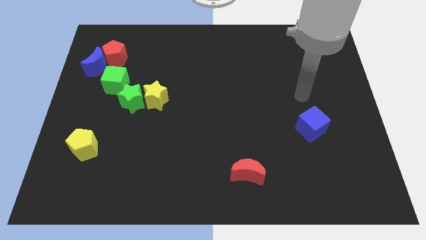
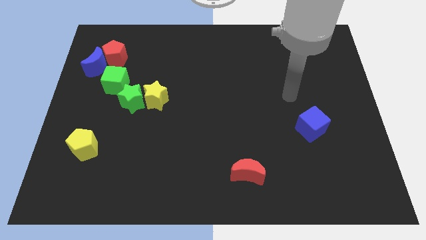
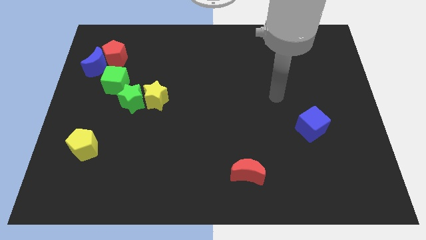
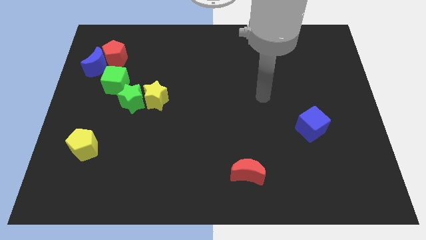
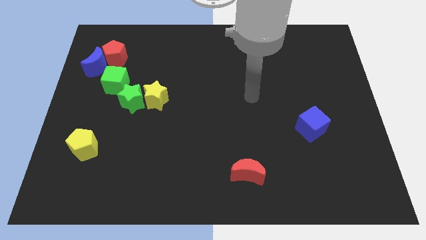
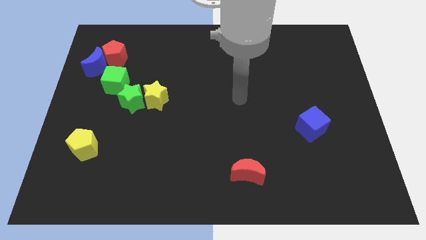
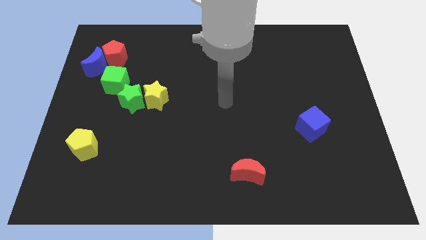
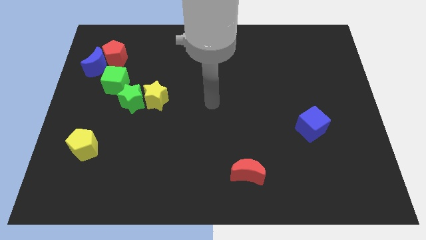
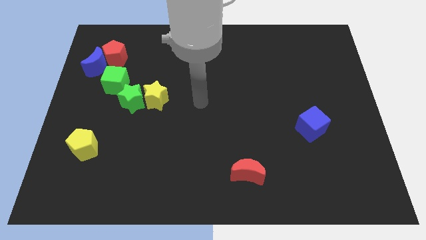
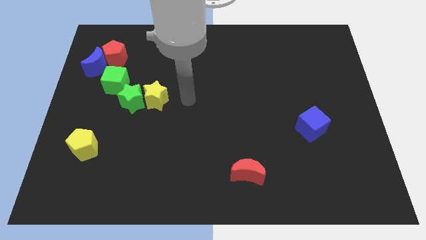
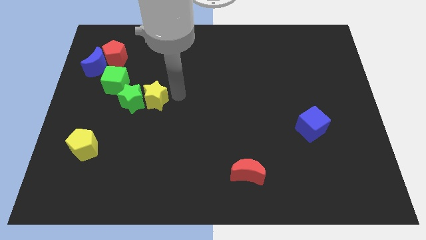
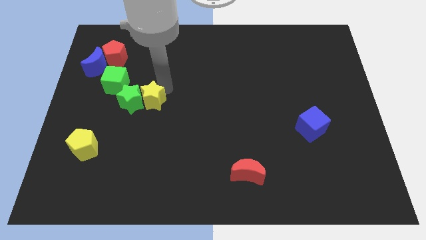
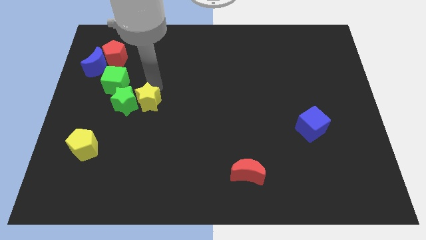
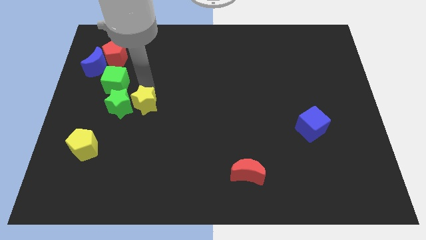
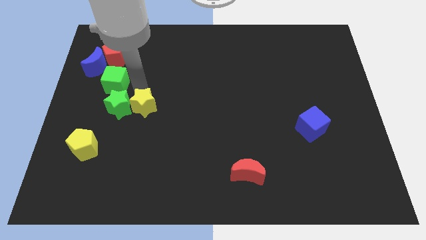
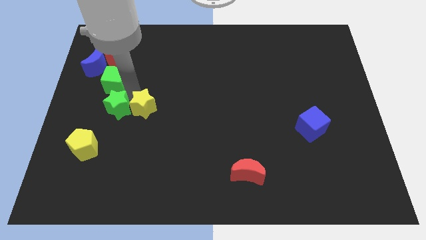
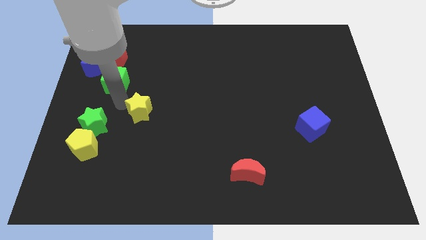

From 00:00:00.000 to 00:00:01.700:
separate the yellow star from the green star

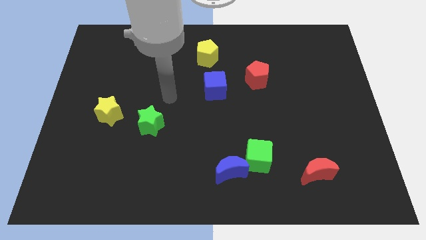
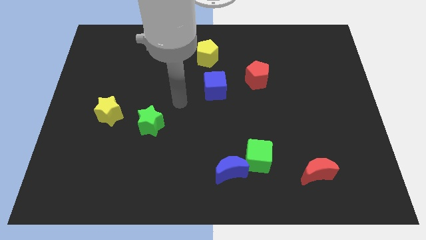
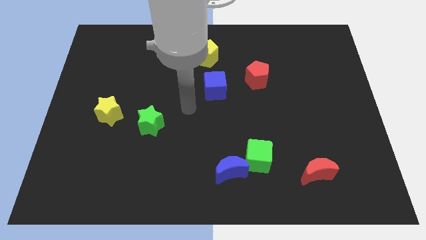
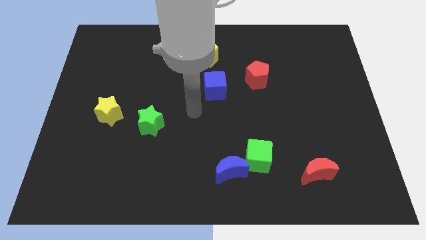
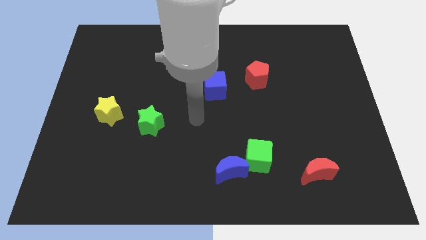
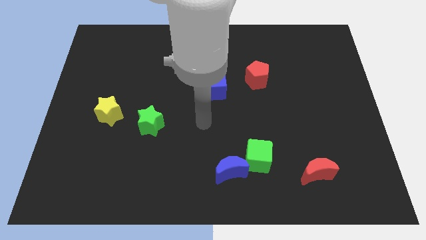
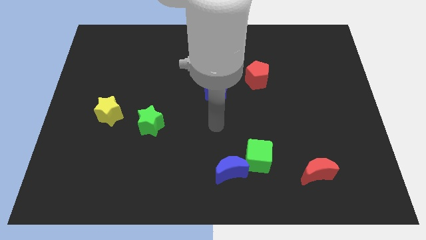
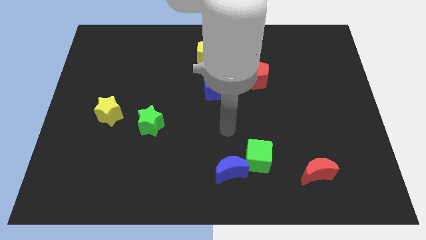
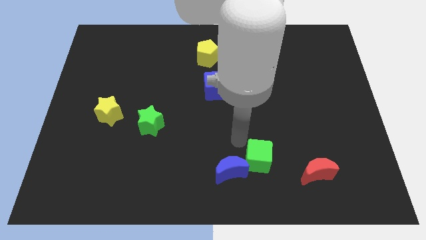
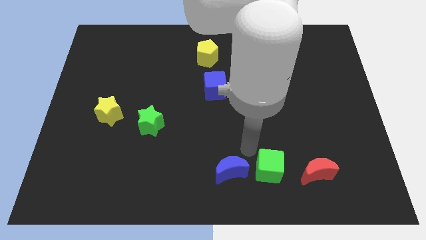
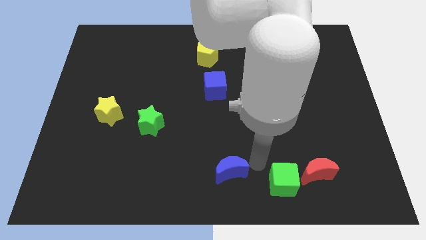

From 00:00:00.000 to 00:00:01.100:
move the blue moon away from the green cube

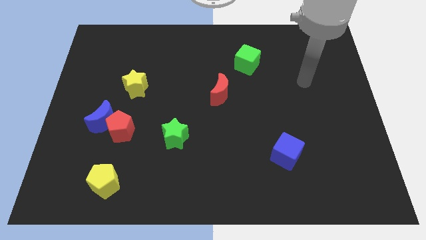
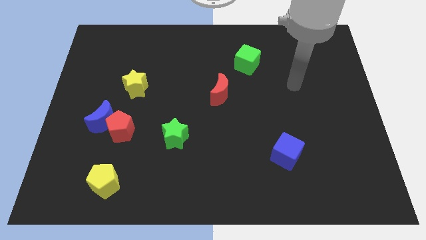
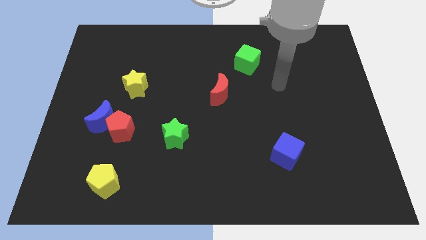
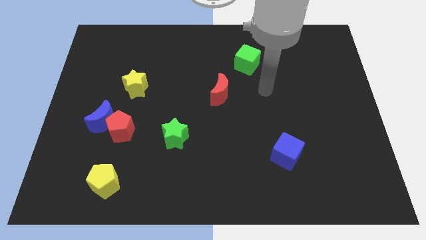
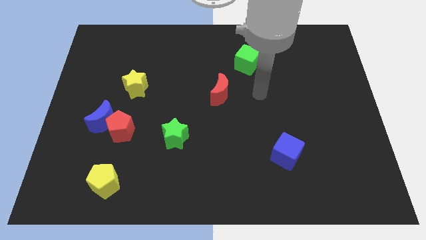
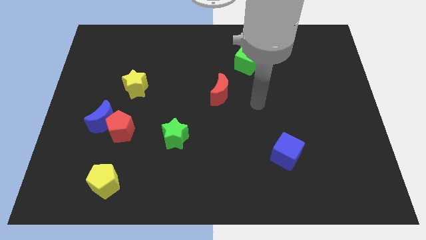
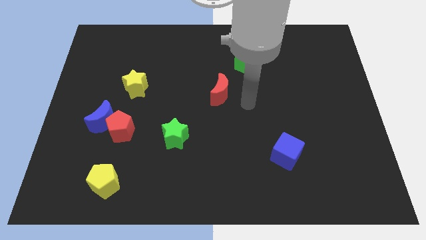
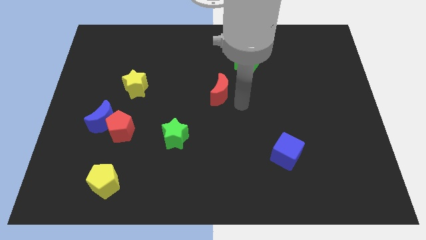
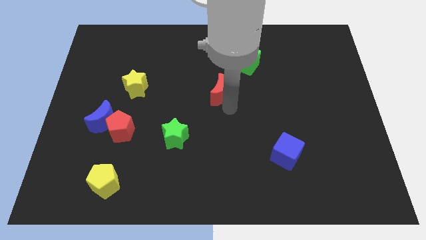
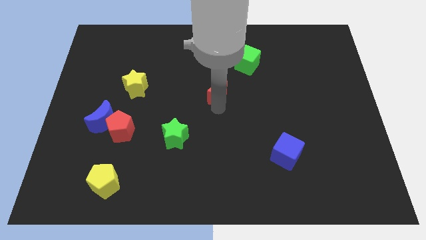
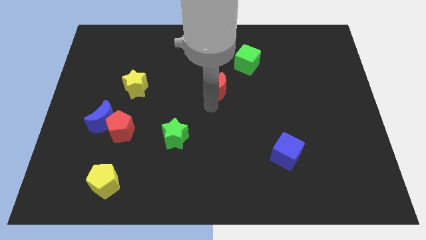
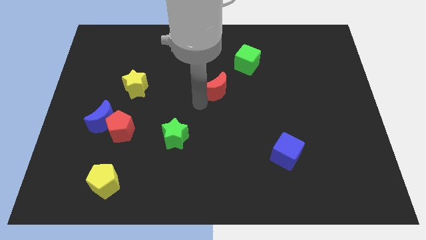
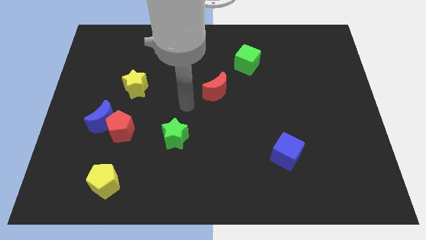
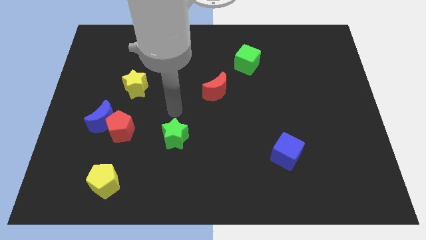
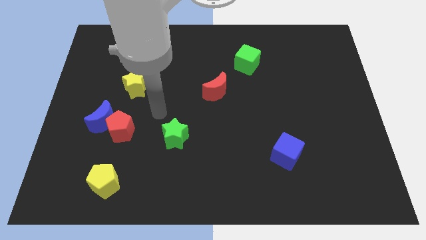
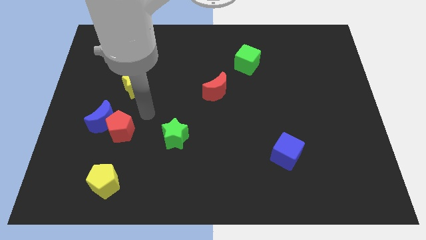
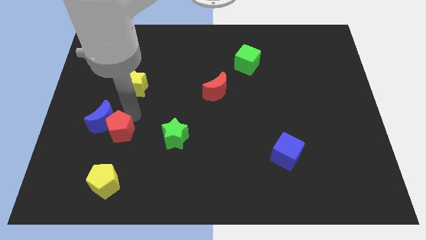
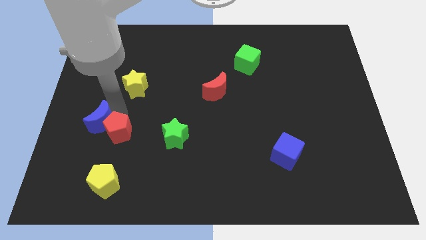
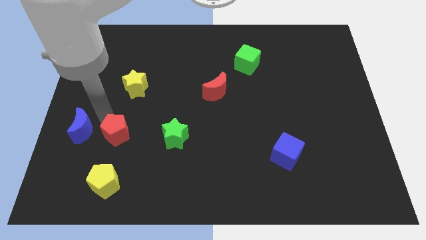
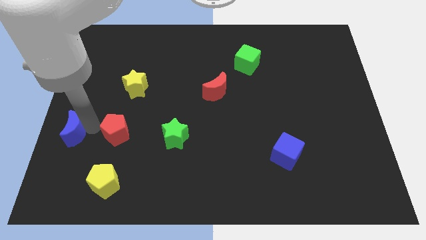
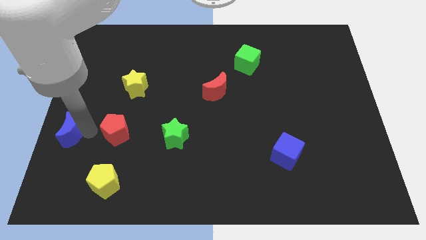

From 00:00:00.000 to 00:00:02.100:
move the red pentagon away from the blue moon

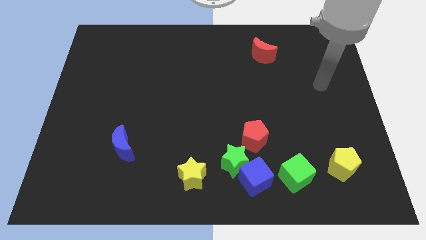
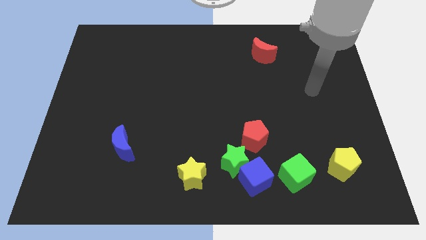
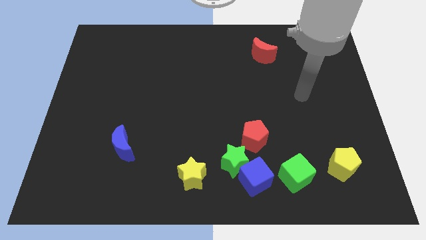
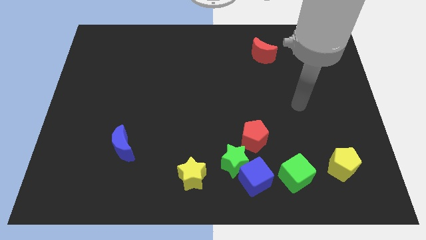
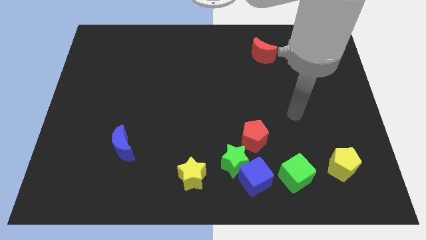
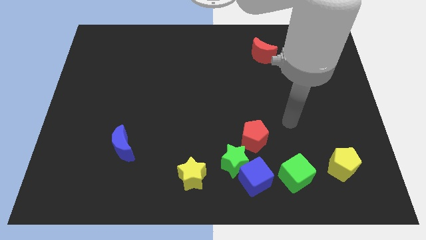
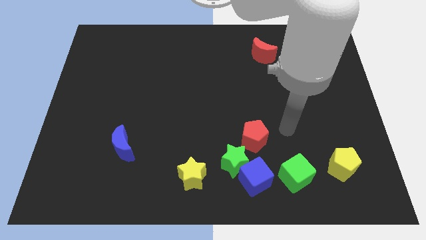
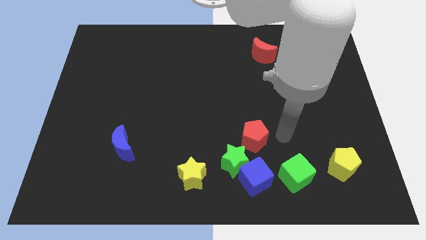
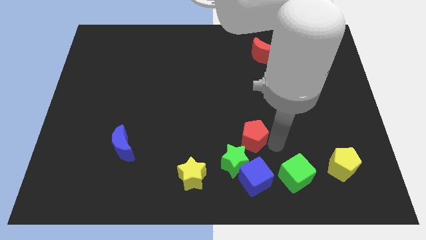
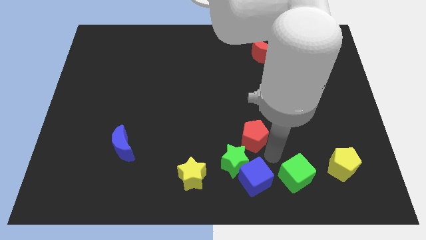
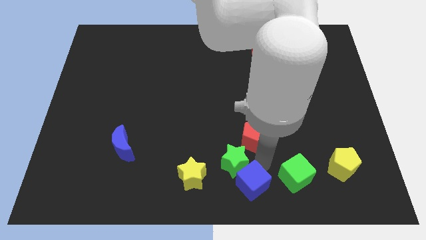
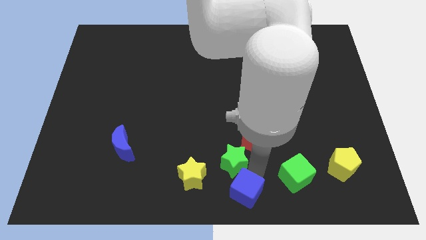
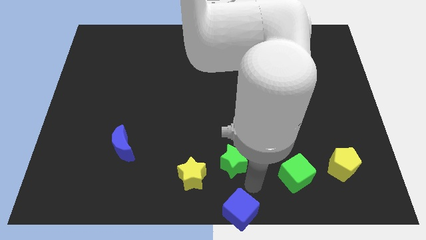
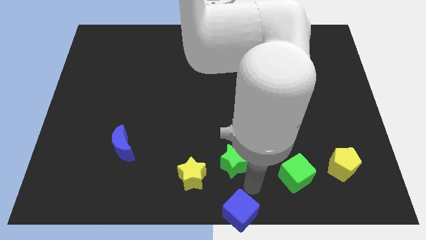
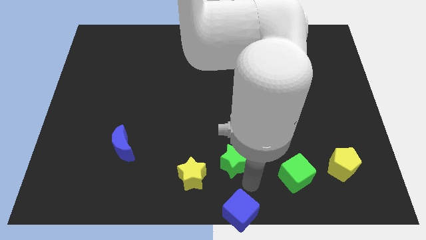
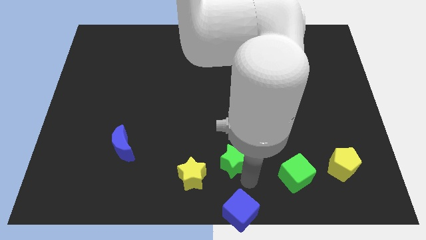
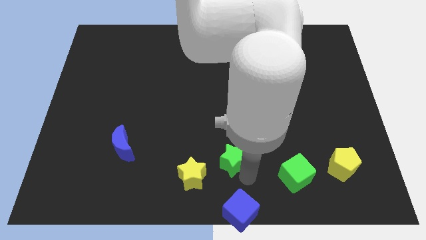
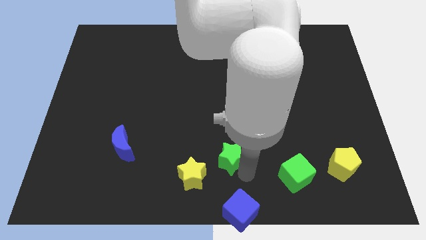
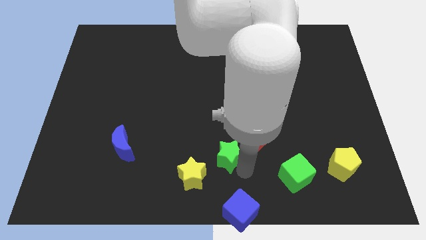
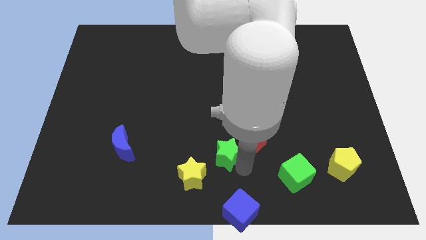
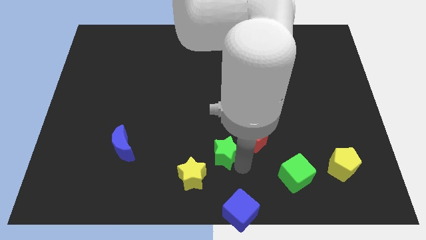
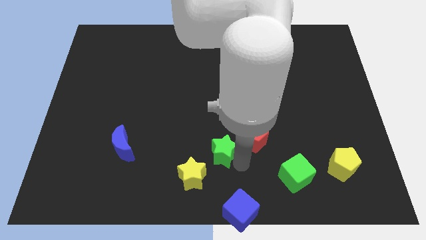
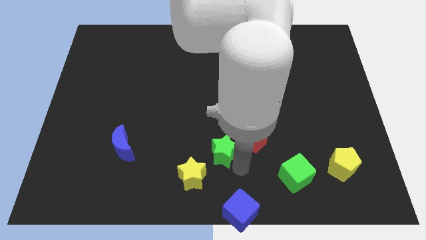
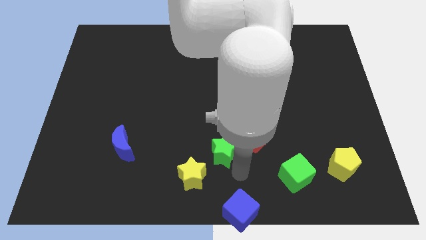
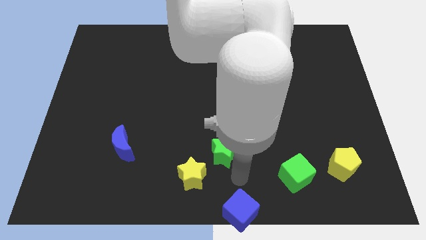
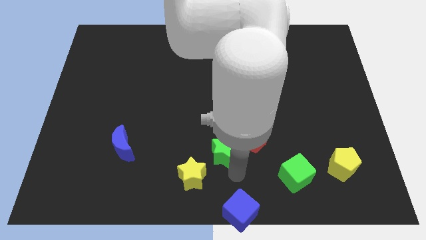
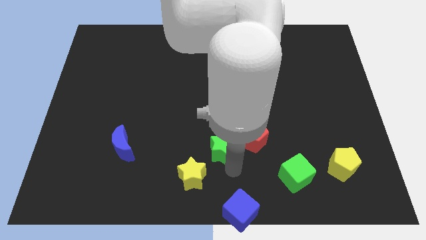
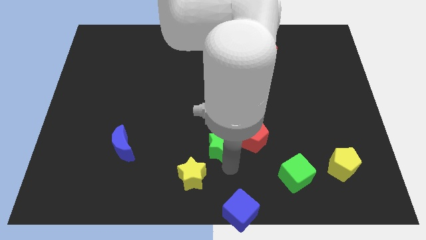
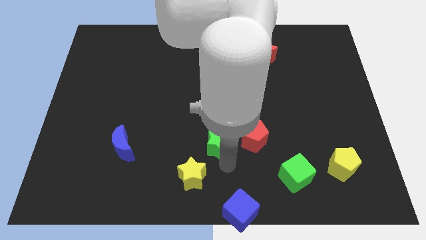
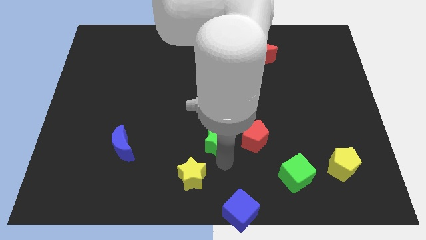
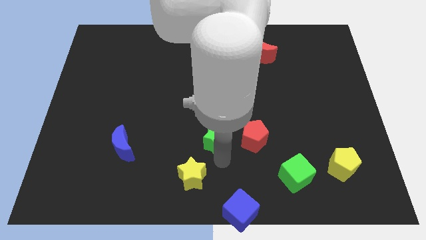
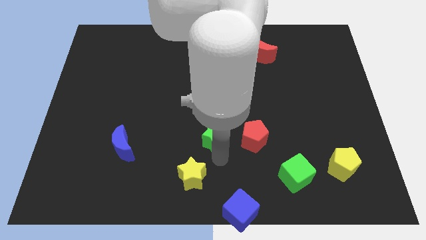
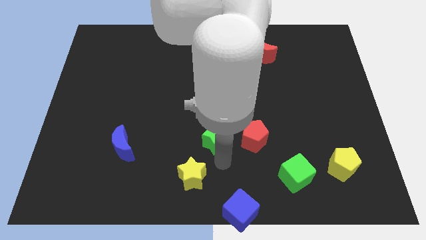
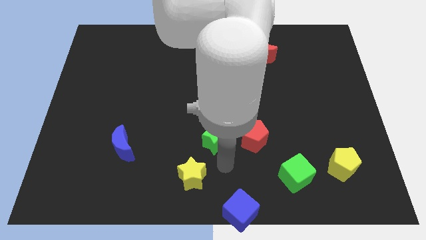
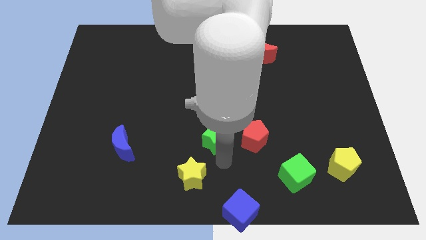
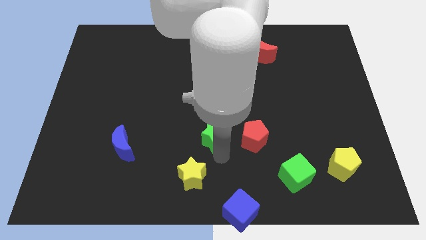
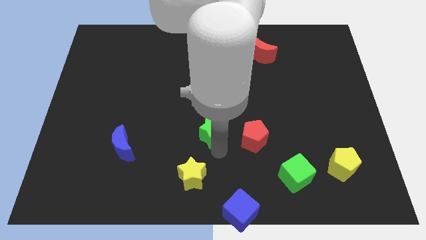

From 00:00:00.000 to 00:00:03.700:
separate the green star from the group of blocks

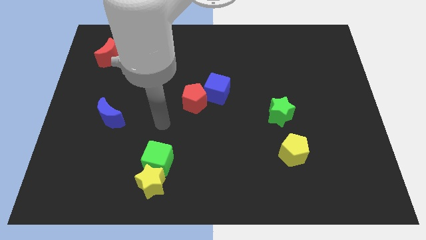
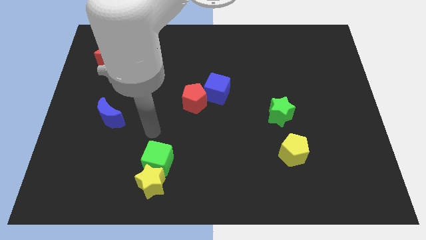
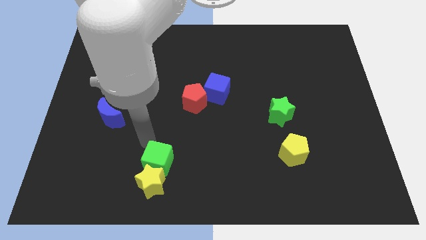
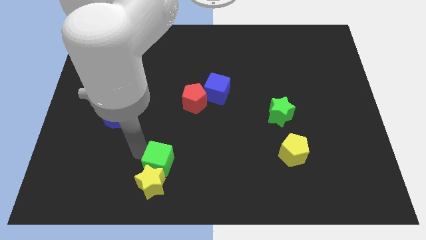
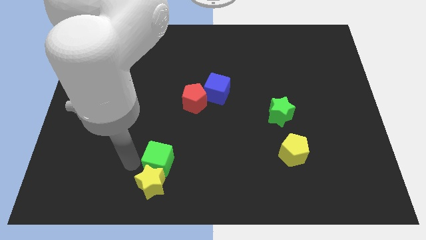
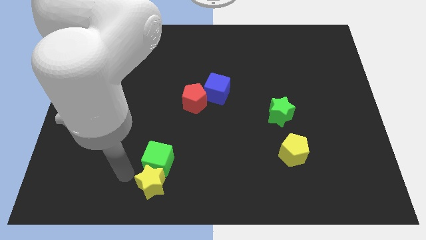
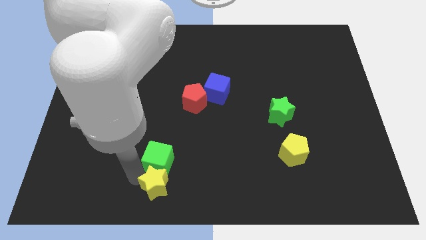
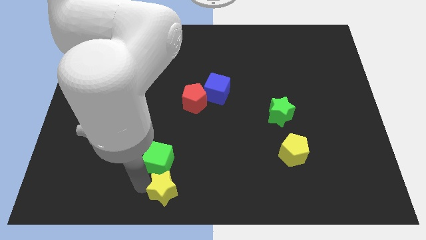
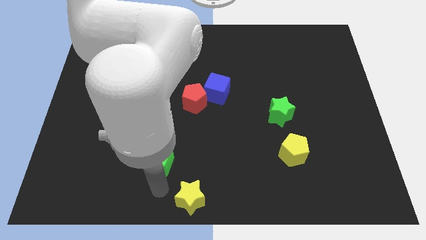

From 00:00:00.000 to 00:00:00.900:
move the green cube away from the yellow star

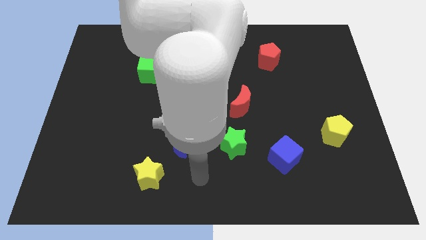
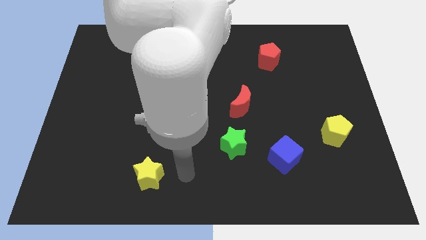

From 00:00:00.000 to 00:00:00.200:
pull the blue moon apart from the yellow star
